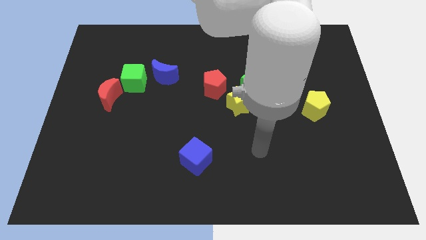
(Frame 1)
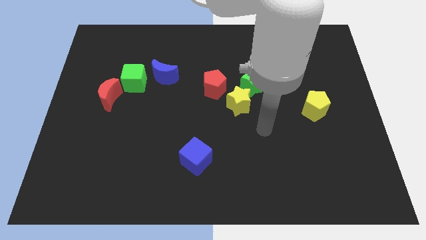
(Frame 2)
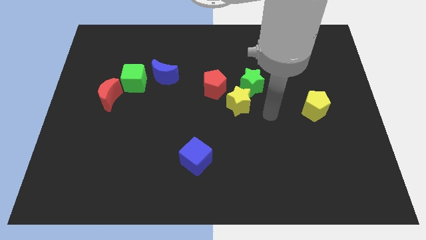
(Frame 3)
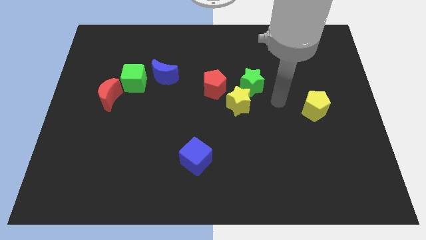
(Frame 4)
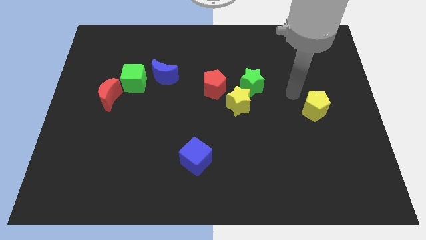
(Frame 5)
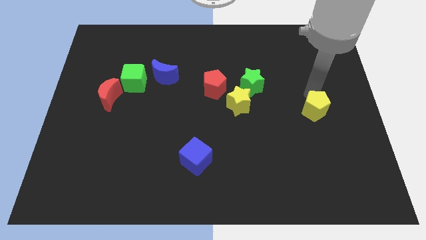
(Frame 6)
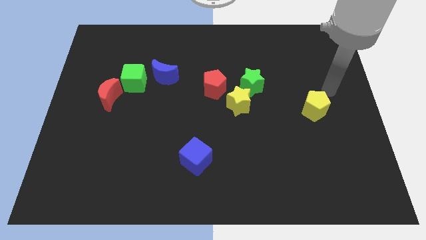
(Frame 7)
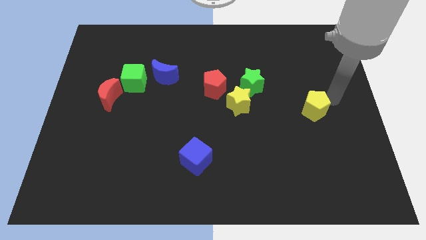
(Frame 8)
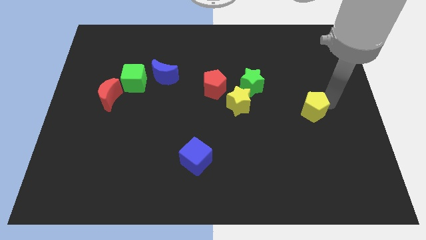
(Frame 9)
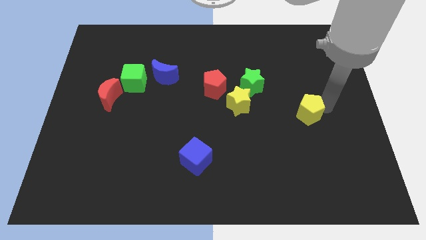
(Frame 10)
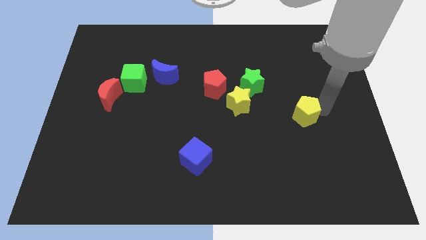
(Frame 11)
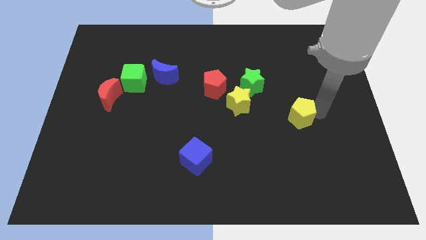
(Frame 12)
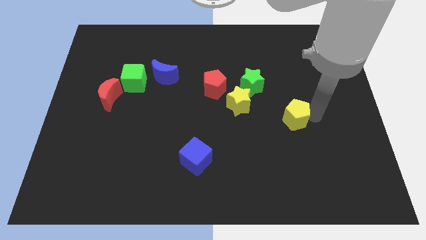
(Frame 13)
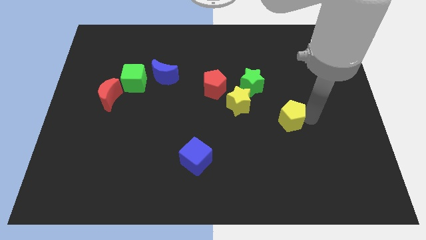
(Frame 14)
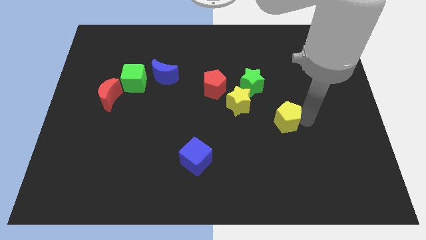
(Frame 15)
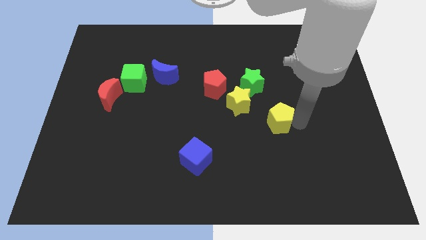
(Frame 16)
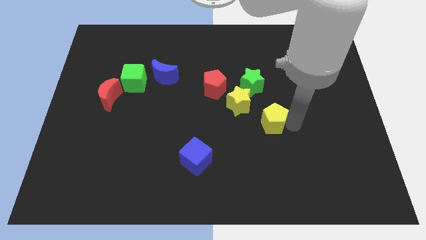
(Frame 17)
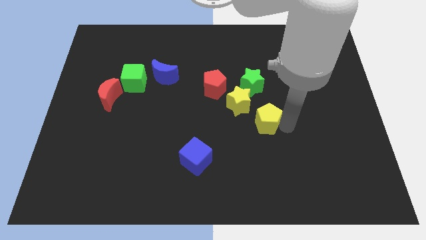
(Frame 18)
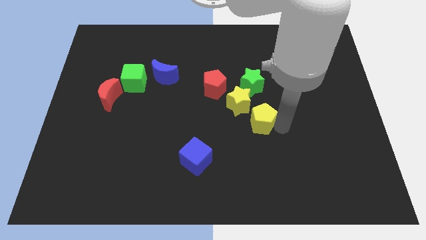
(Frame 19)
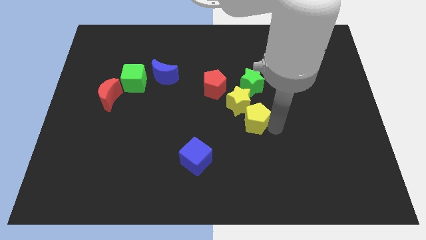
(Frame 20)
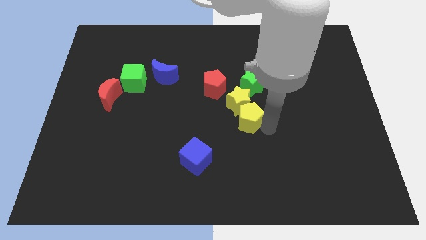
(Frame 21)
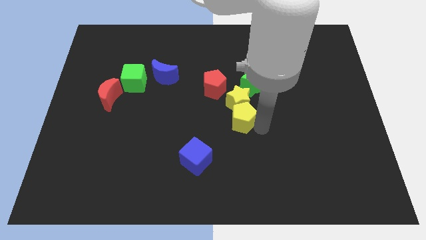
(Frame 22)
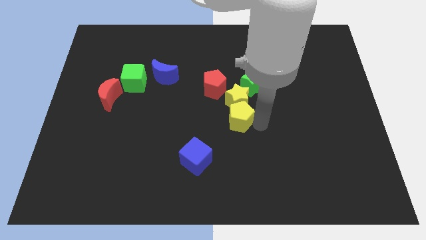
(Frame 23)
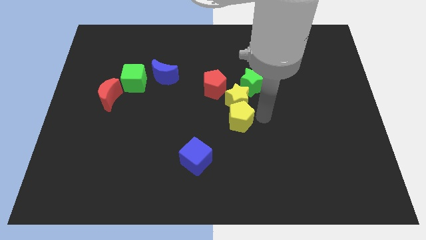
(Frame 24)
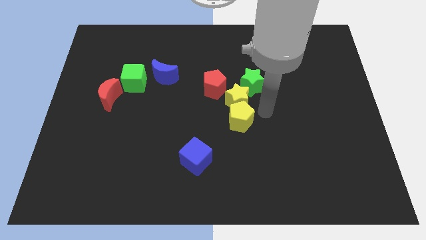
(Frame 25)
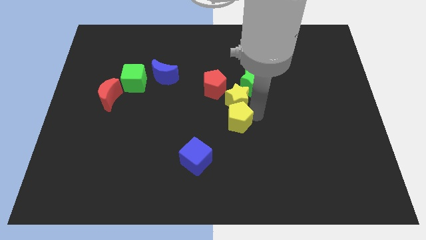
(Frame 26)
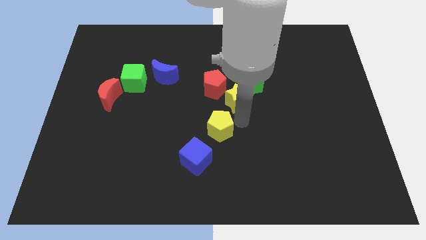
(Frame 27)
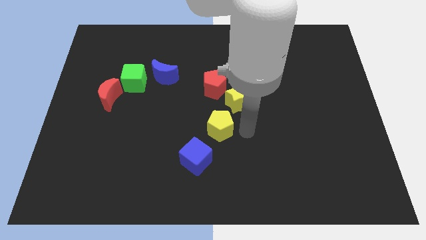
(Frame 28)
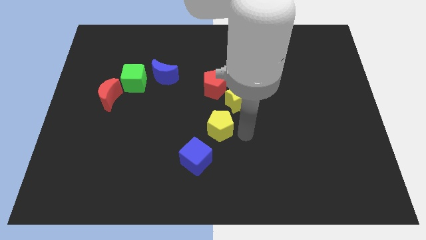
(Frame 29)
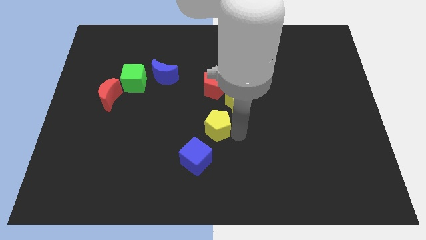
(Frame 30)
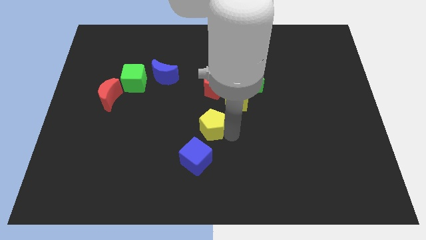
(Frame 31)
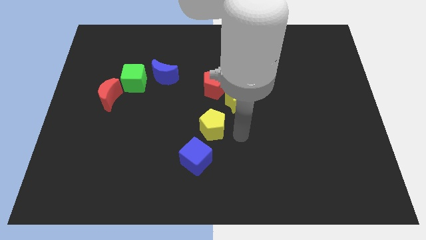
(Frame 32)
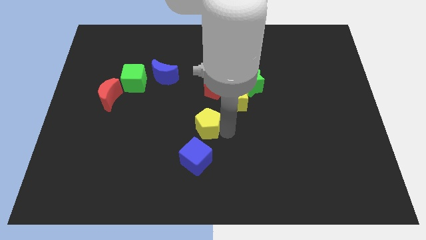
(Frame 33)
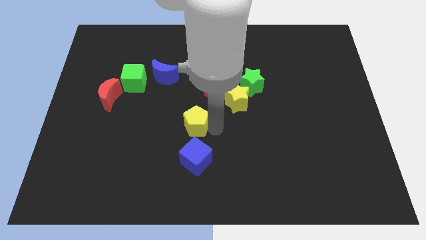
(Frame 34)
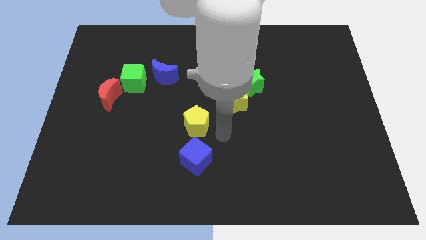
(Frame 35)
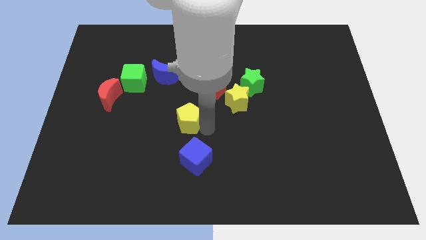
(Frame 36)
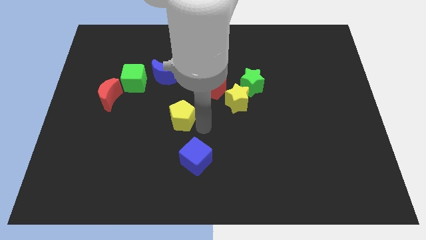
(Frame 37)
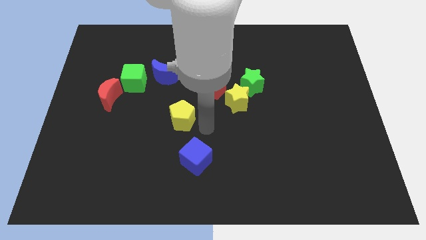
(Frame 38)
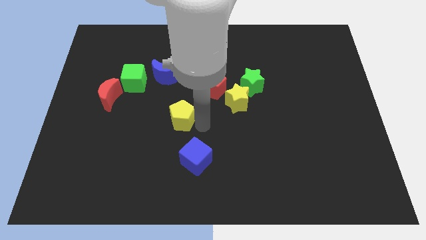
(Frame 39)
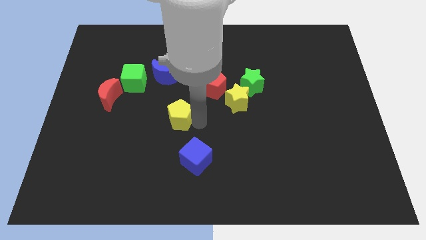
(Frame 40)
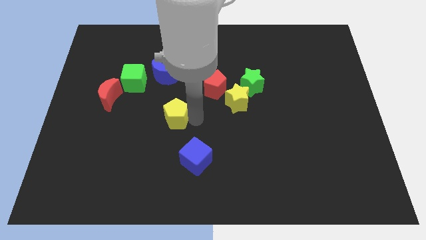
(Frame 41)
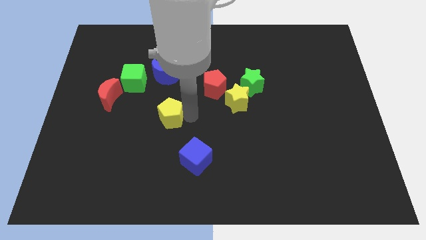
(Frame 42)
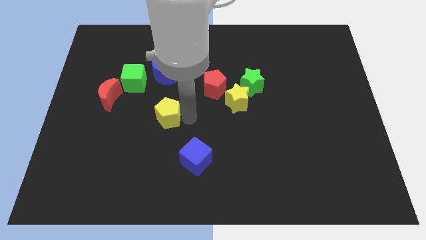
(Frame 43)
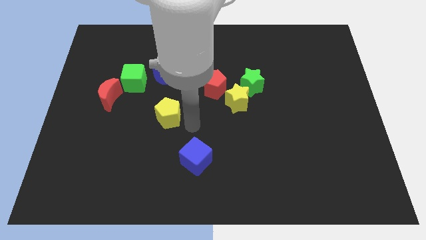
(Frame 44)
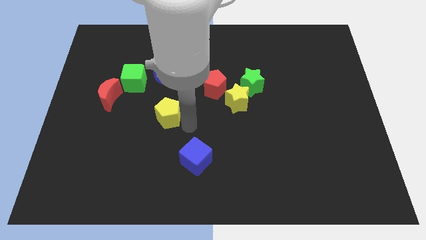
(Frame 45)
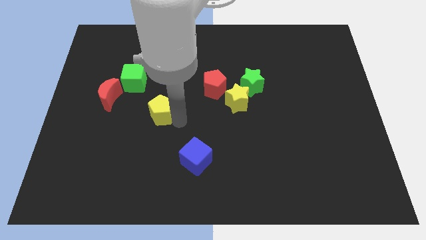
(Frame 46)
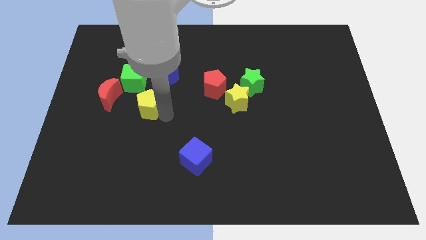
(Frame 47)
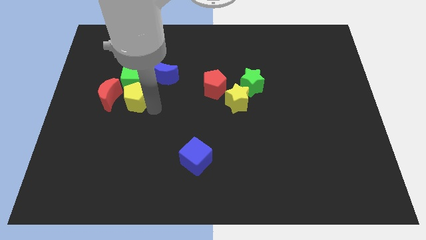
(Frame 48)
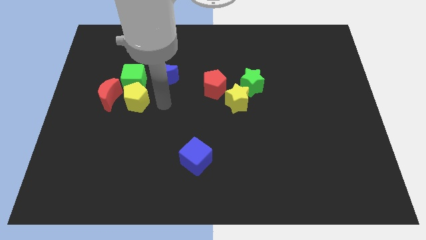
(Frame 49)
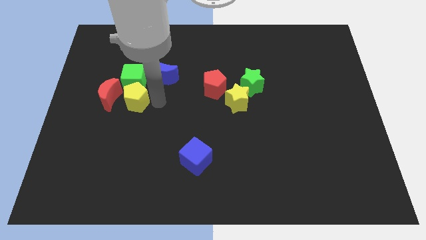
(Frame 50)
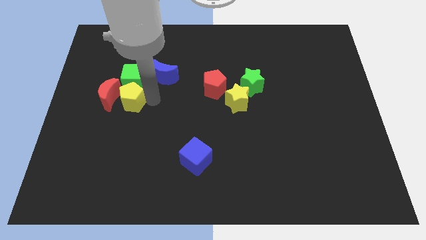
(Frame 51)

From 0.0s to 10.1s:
move the yellow pentagon next to the red moon

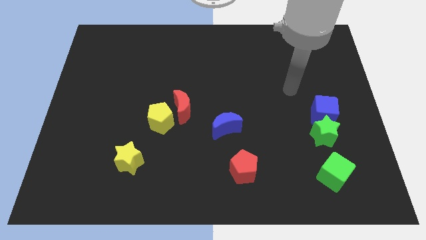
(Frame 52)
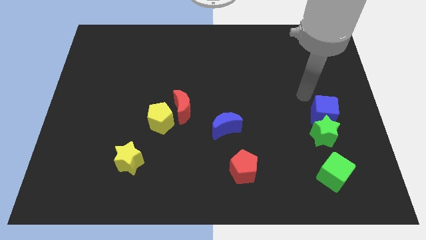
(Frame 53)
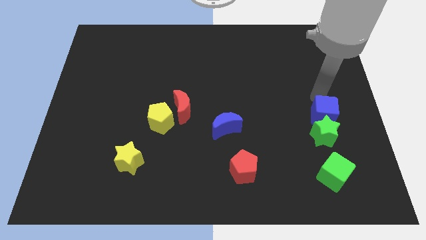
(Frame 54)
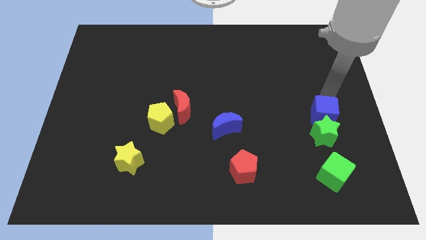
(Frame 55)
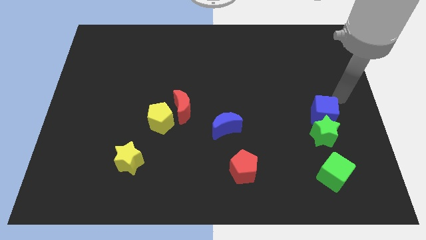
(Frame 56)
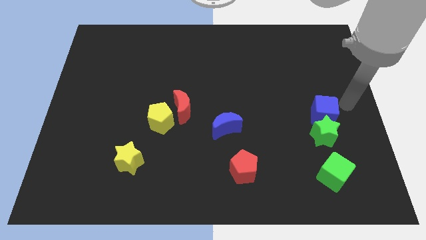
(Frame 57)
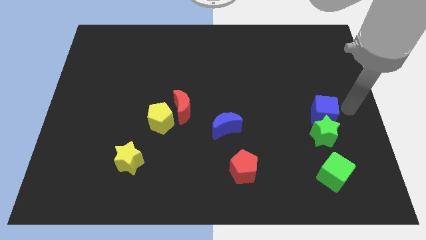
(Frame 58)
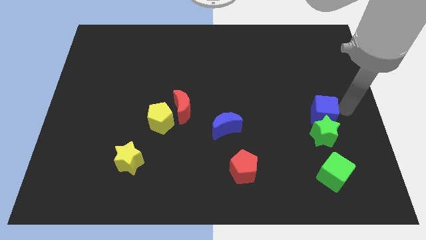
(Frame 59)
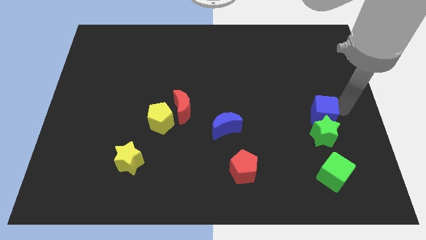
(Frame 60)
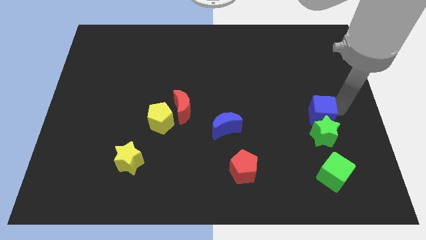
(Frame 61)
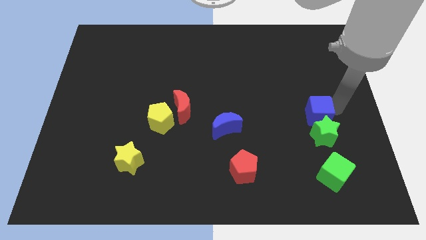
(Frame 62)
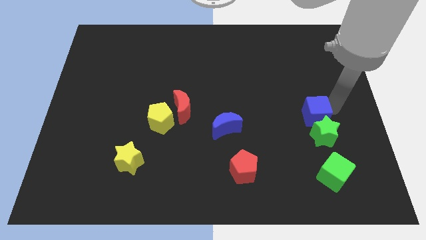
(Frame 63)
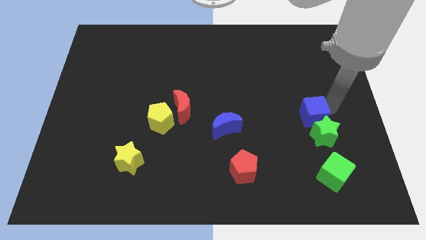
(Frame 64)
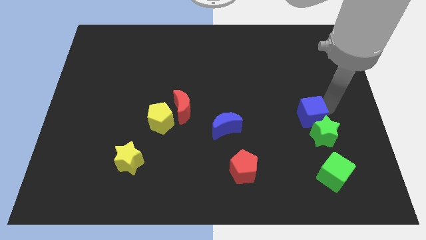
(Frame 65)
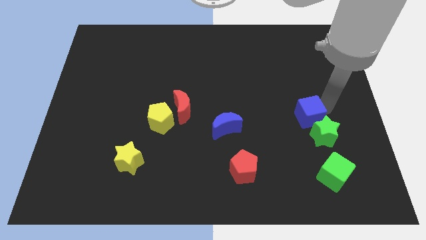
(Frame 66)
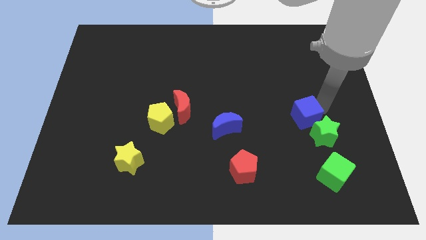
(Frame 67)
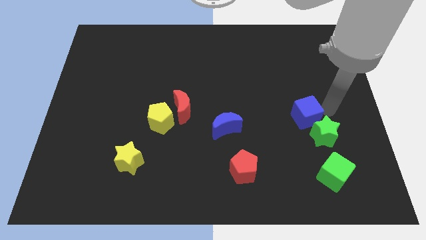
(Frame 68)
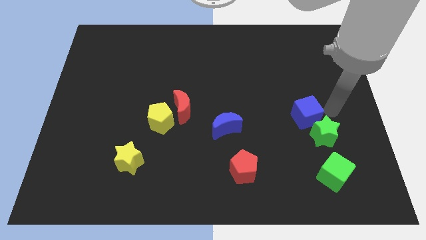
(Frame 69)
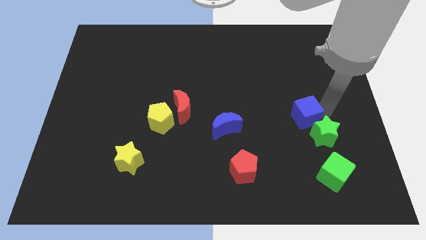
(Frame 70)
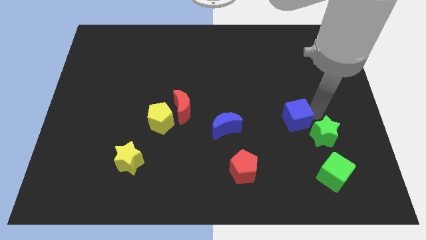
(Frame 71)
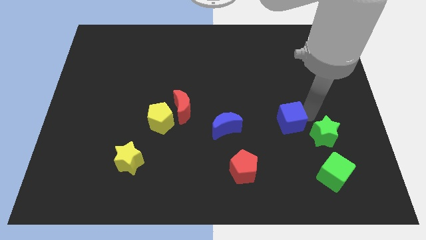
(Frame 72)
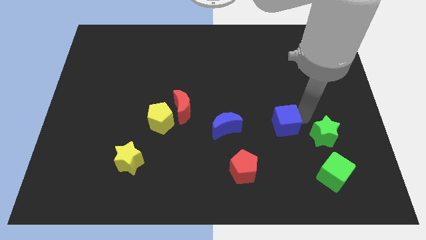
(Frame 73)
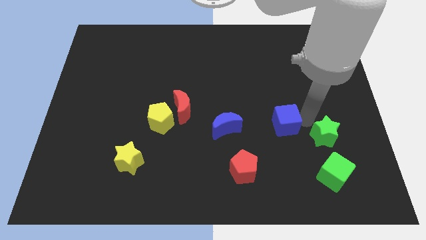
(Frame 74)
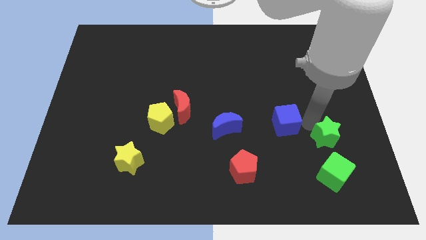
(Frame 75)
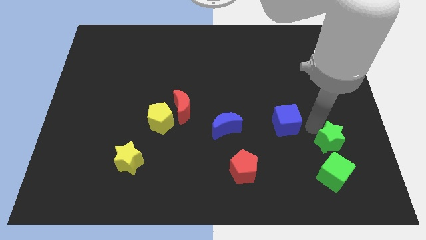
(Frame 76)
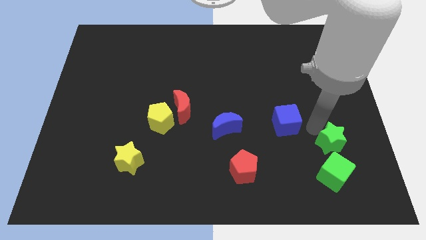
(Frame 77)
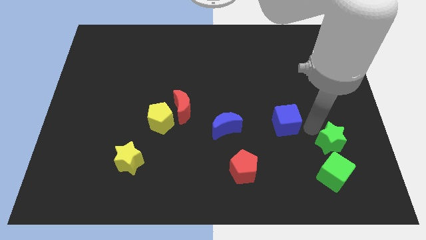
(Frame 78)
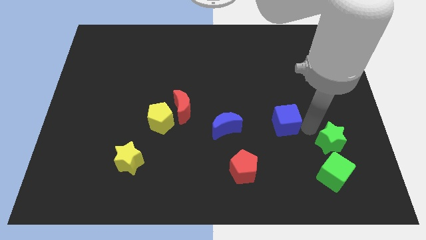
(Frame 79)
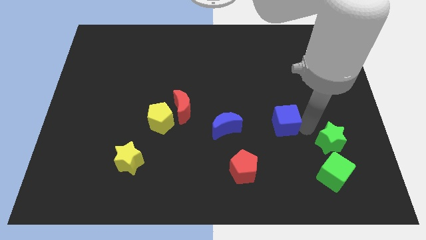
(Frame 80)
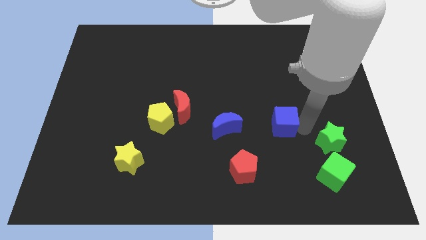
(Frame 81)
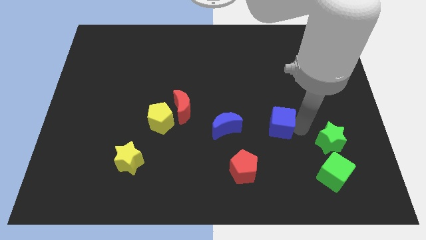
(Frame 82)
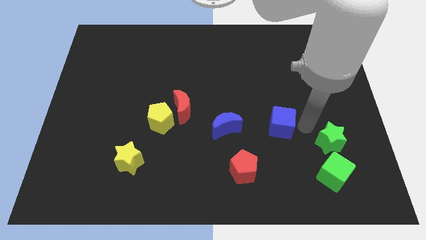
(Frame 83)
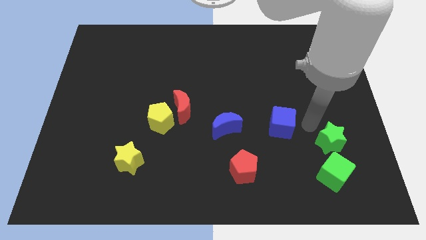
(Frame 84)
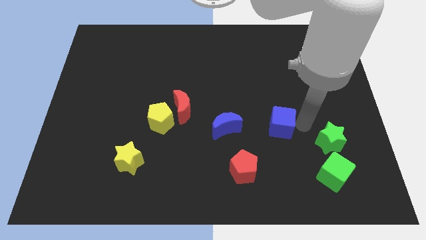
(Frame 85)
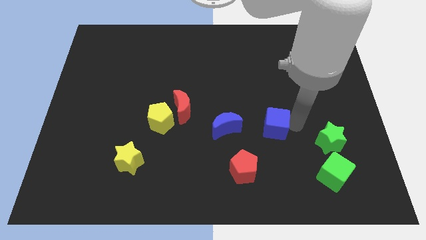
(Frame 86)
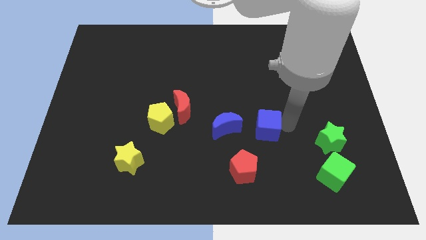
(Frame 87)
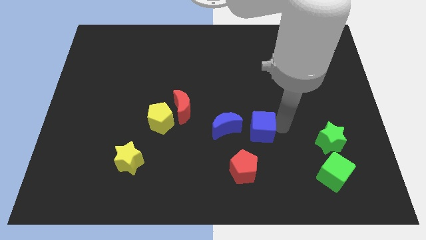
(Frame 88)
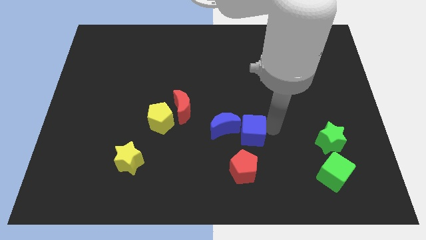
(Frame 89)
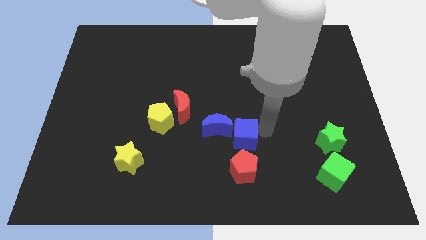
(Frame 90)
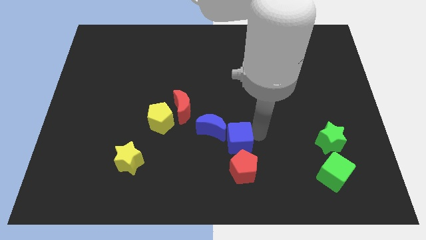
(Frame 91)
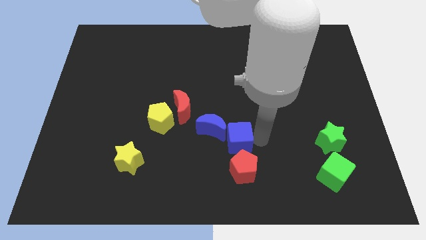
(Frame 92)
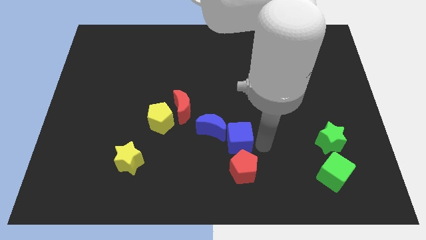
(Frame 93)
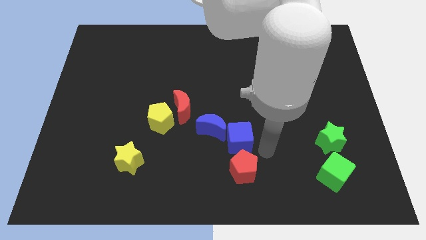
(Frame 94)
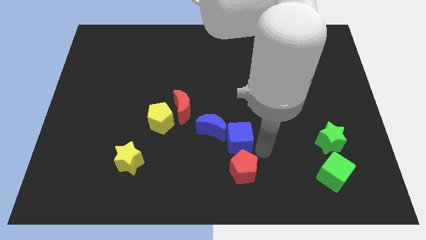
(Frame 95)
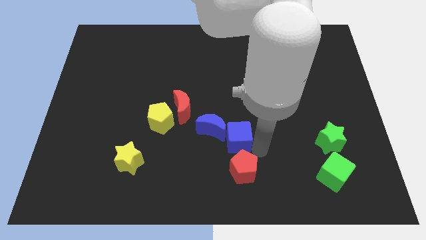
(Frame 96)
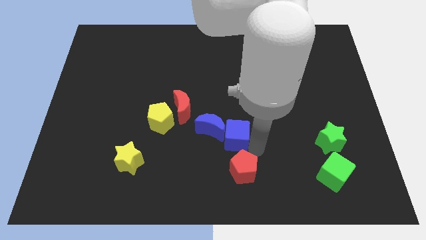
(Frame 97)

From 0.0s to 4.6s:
slide the blue cube next to the blue moon
